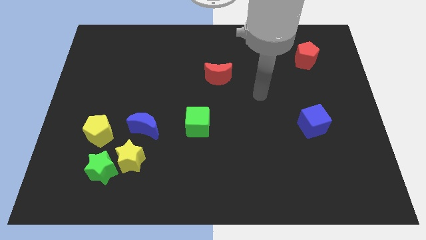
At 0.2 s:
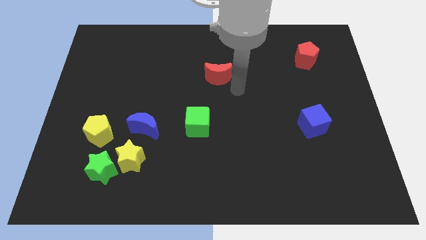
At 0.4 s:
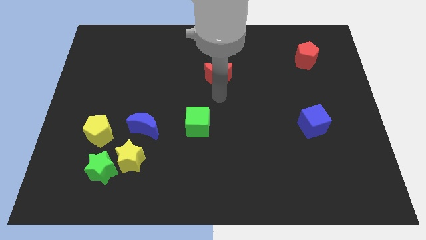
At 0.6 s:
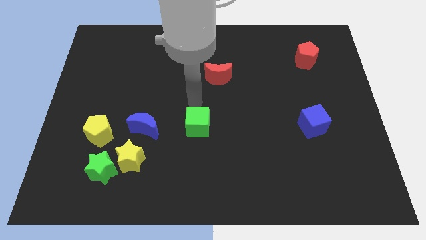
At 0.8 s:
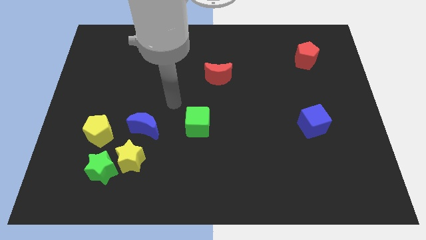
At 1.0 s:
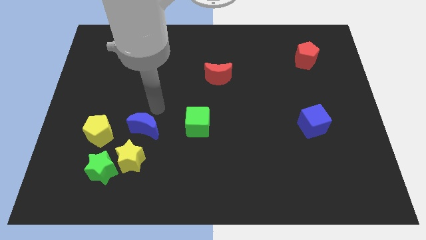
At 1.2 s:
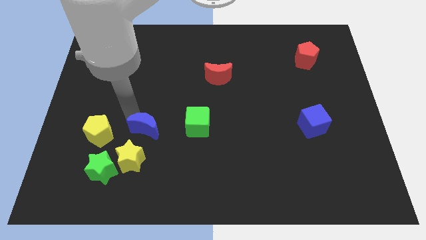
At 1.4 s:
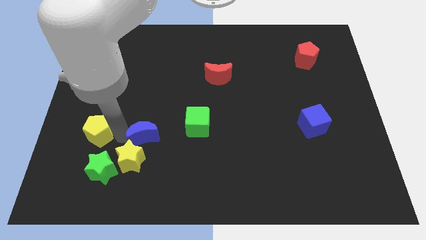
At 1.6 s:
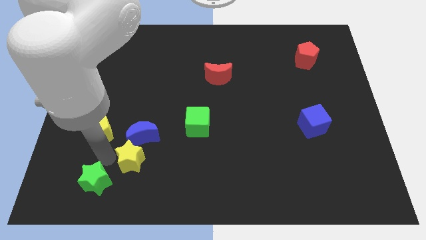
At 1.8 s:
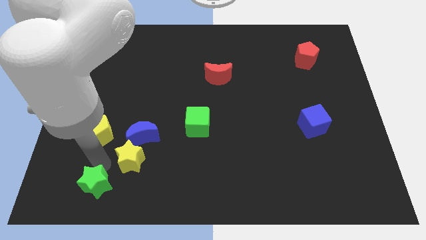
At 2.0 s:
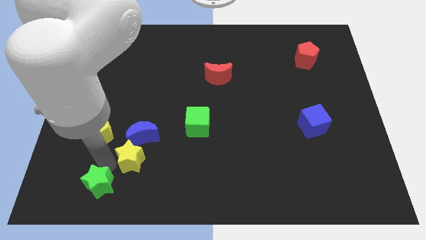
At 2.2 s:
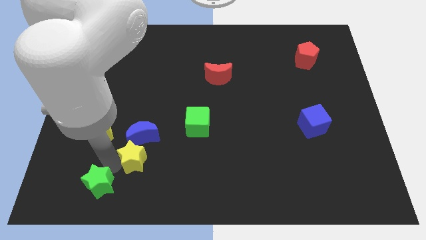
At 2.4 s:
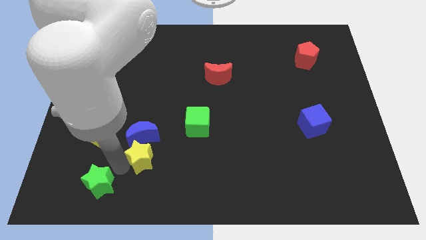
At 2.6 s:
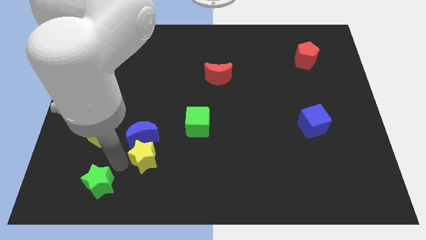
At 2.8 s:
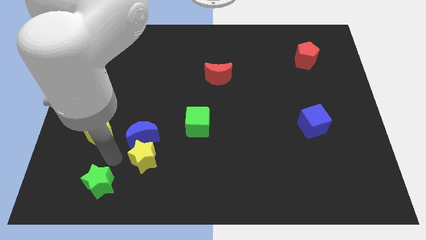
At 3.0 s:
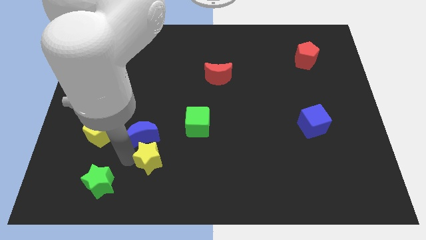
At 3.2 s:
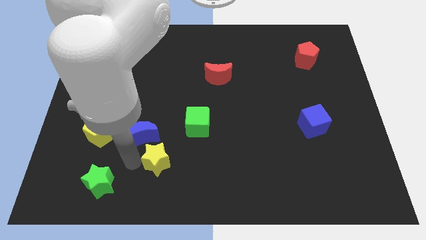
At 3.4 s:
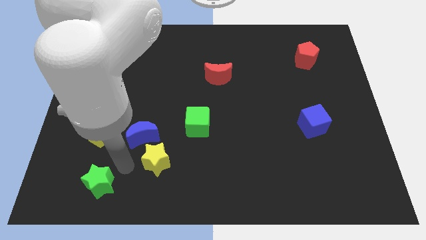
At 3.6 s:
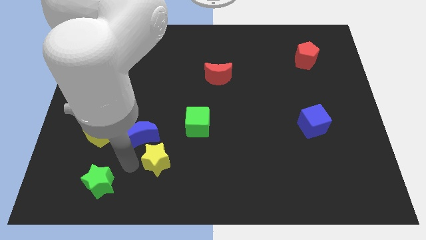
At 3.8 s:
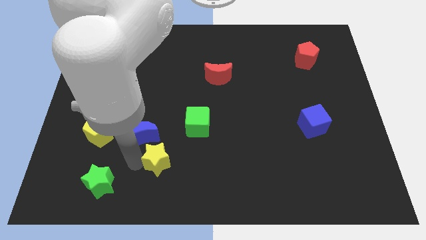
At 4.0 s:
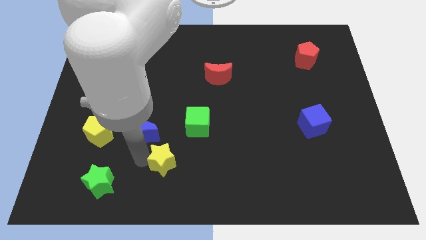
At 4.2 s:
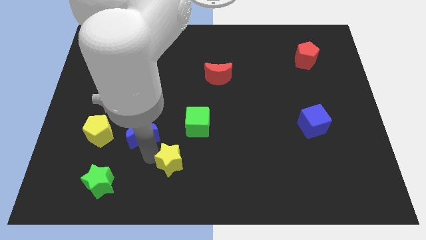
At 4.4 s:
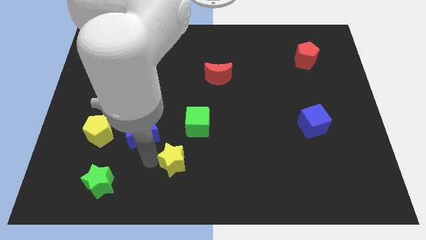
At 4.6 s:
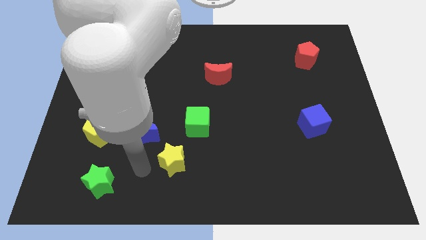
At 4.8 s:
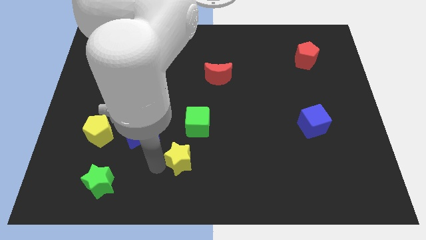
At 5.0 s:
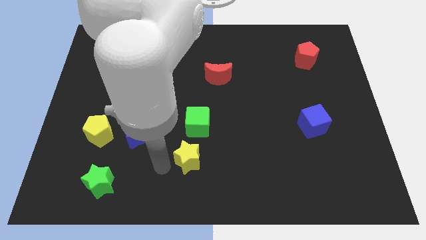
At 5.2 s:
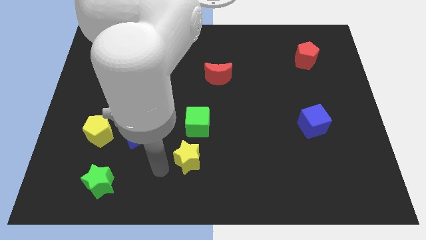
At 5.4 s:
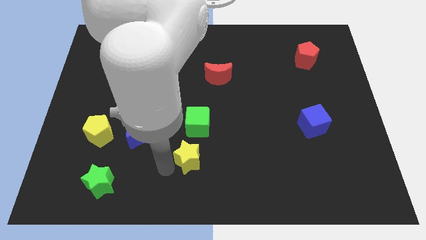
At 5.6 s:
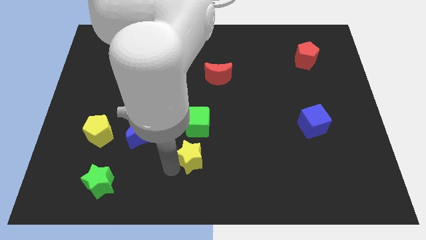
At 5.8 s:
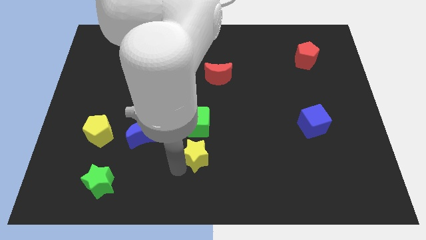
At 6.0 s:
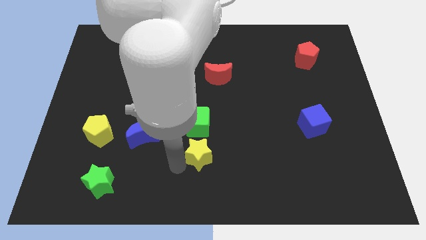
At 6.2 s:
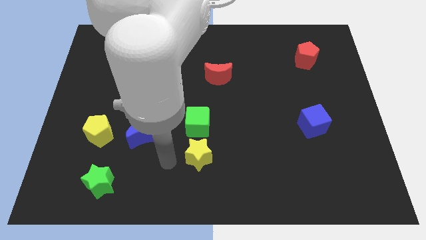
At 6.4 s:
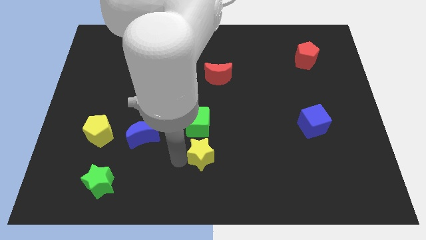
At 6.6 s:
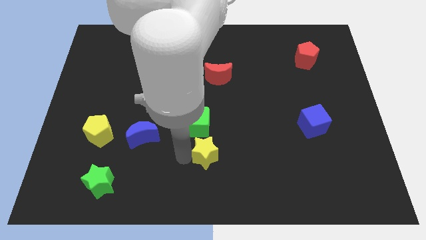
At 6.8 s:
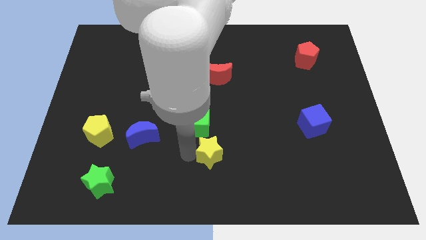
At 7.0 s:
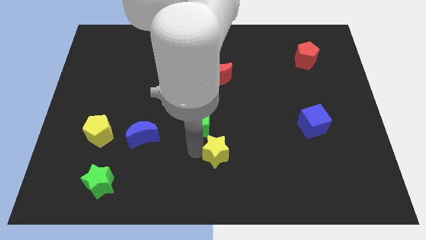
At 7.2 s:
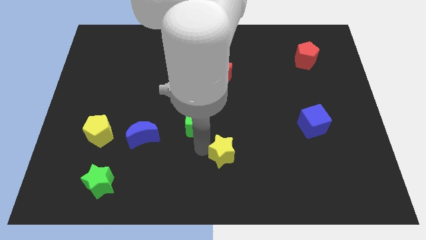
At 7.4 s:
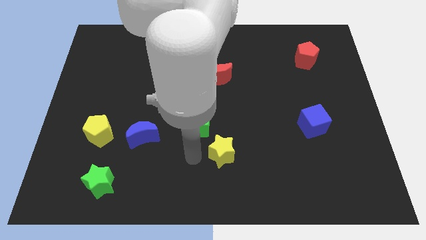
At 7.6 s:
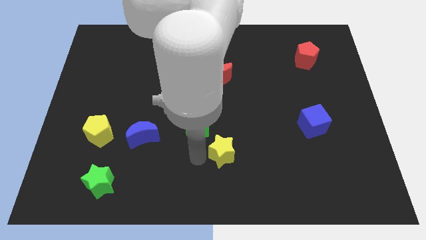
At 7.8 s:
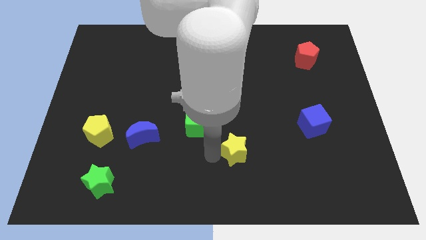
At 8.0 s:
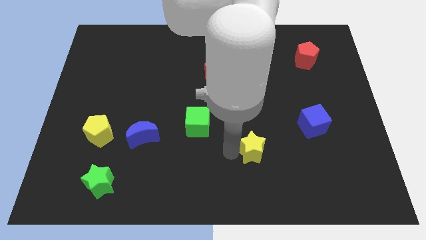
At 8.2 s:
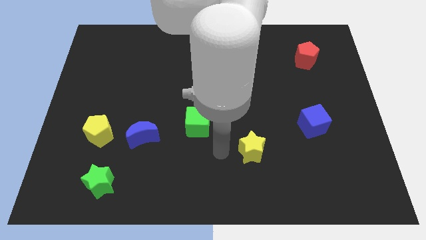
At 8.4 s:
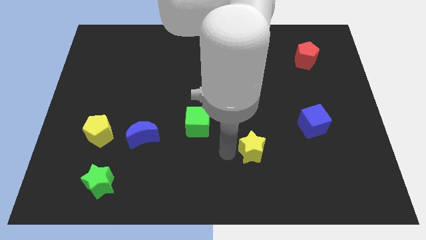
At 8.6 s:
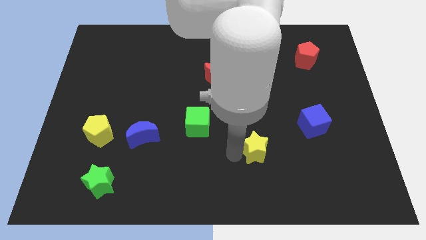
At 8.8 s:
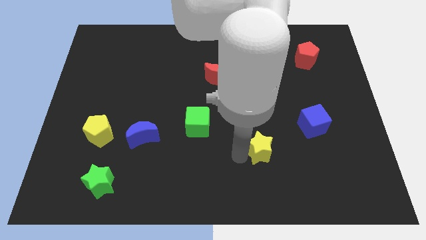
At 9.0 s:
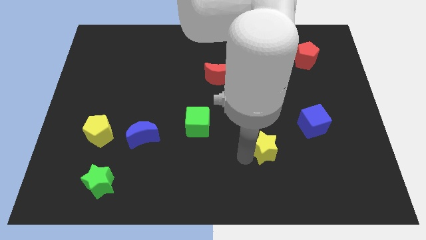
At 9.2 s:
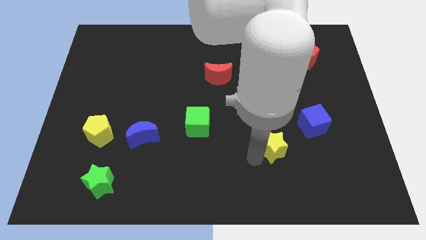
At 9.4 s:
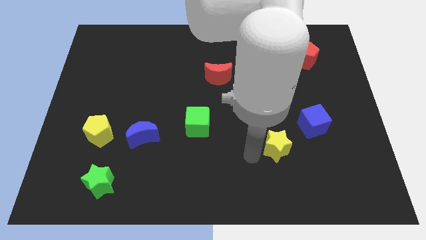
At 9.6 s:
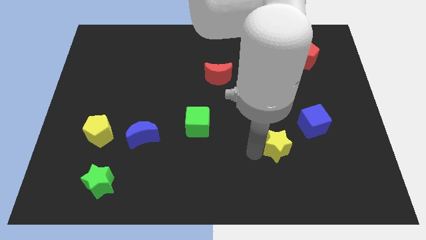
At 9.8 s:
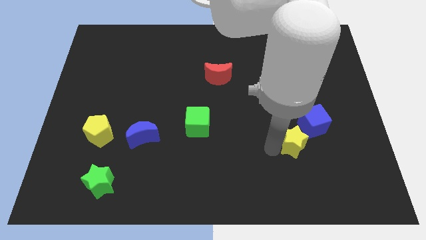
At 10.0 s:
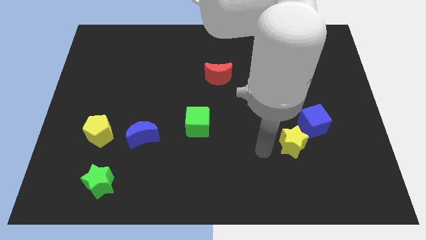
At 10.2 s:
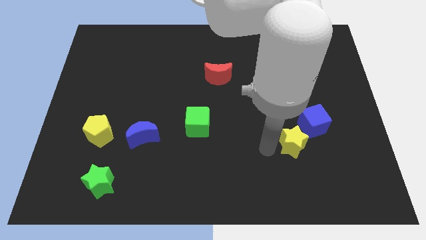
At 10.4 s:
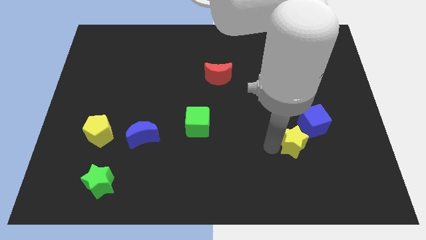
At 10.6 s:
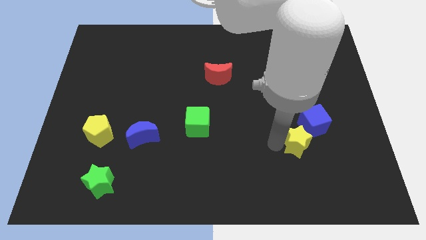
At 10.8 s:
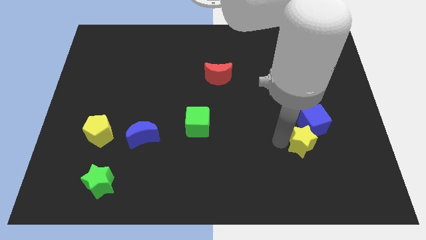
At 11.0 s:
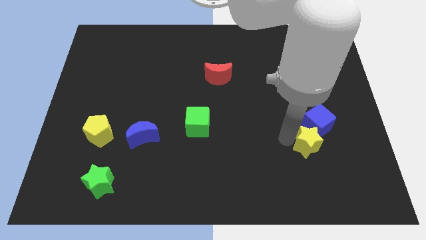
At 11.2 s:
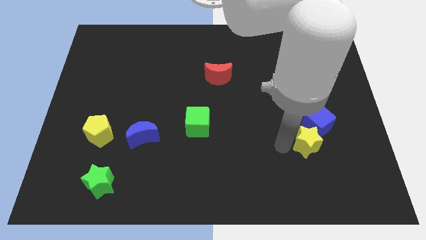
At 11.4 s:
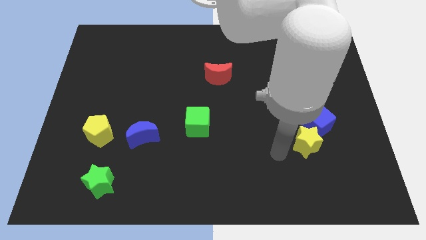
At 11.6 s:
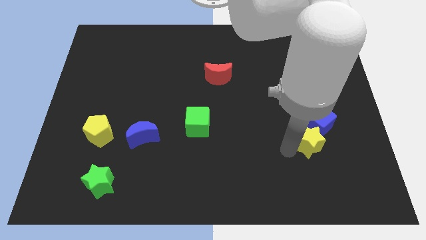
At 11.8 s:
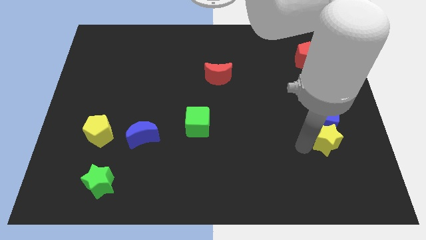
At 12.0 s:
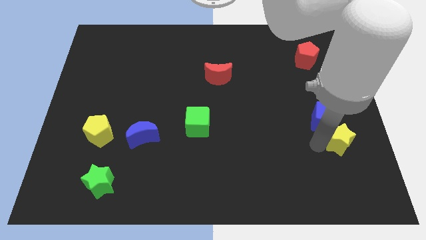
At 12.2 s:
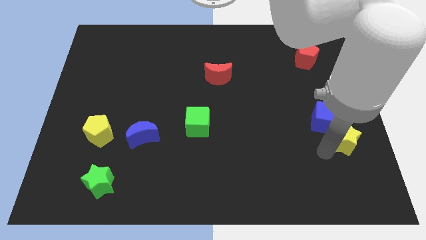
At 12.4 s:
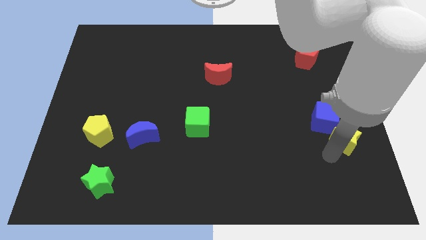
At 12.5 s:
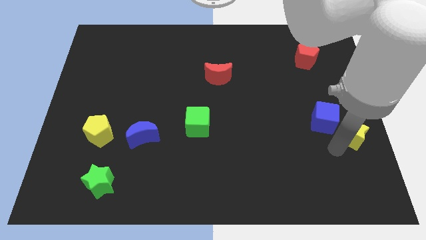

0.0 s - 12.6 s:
slide the yellow star to the right side

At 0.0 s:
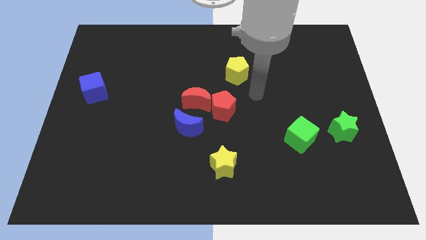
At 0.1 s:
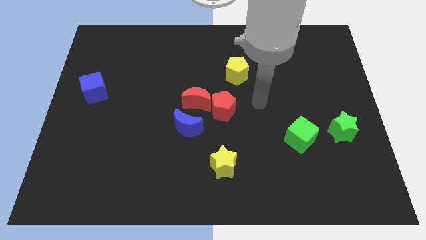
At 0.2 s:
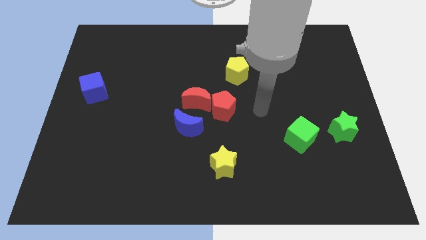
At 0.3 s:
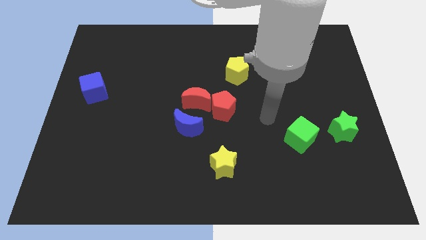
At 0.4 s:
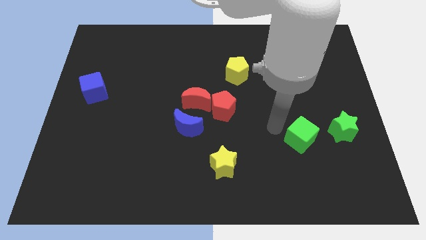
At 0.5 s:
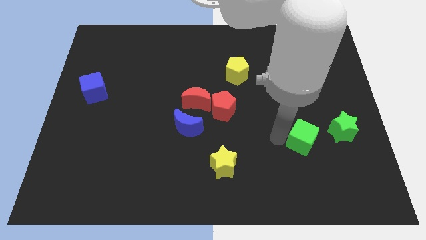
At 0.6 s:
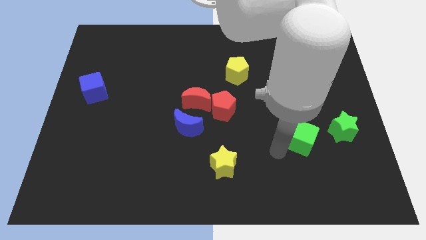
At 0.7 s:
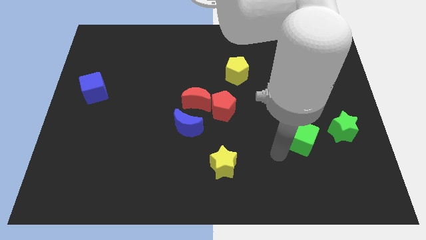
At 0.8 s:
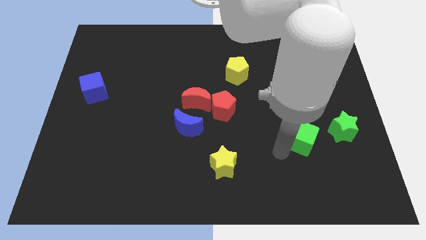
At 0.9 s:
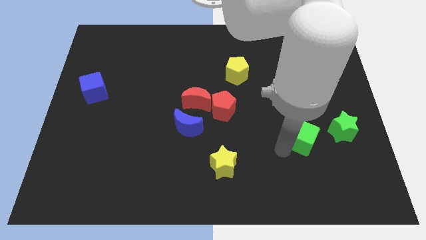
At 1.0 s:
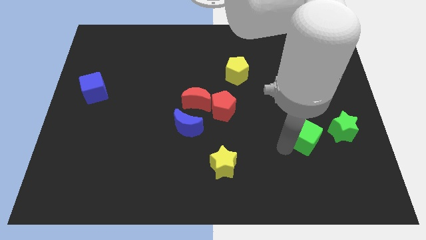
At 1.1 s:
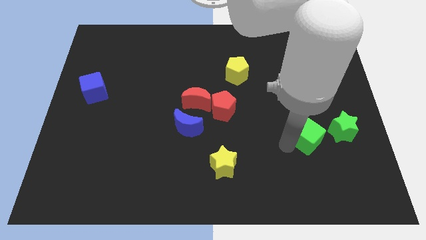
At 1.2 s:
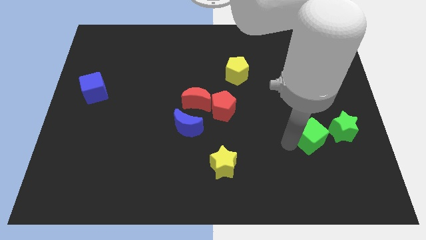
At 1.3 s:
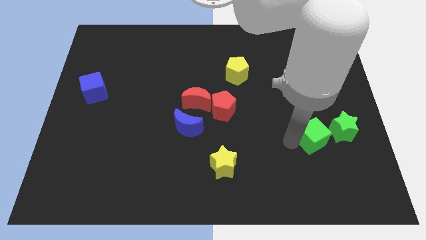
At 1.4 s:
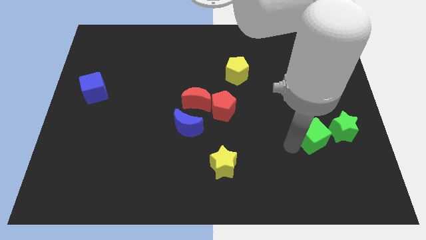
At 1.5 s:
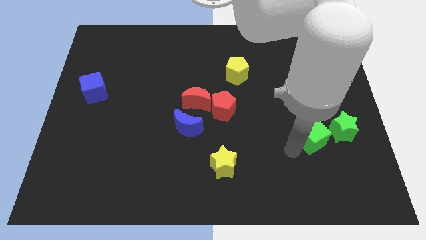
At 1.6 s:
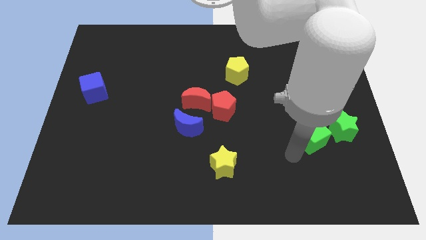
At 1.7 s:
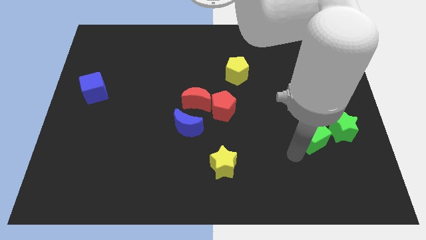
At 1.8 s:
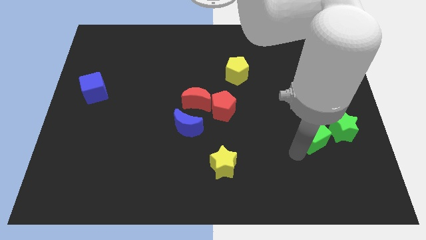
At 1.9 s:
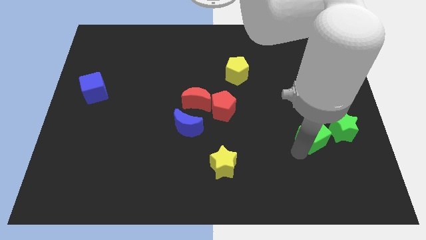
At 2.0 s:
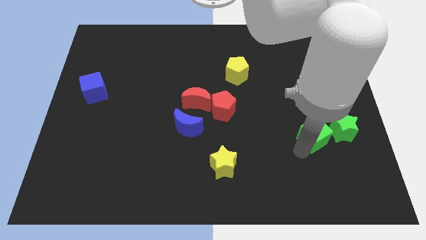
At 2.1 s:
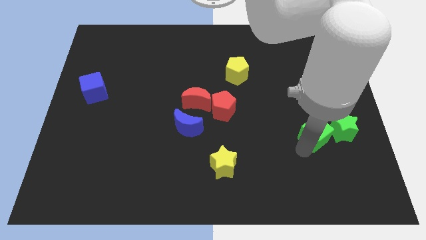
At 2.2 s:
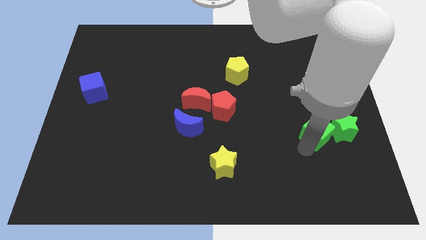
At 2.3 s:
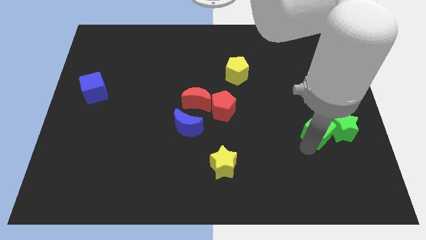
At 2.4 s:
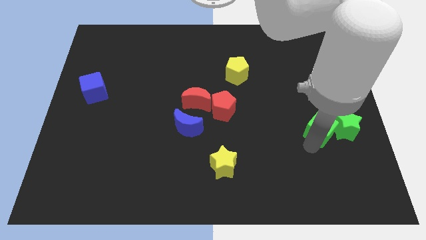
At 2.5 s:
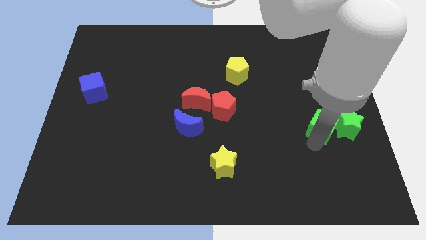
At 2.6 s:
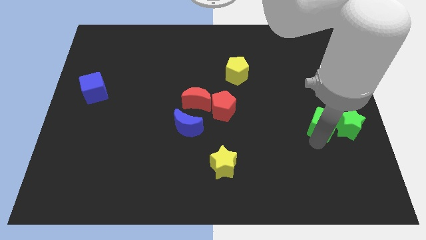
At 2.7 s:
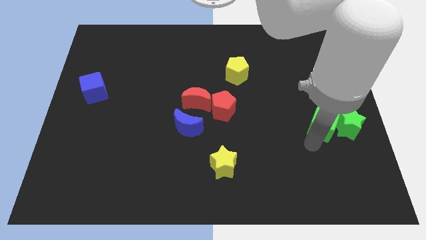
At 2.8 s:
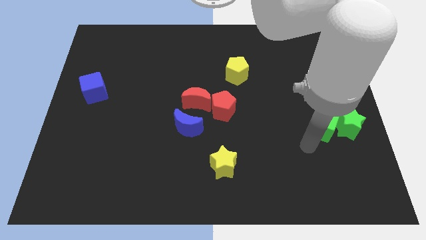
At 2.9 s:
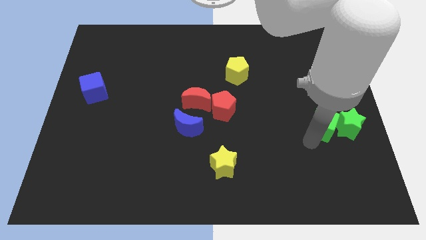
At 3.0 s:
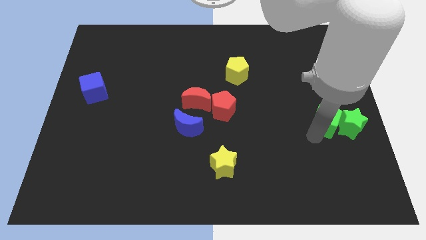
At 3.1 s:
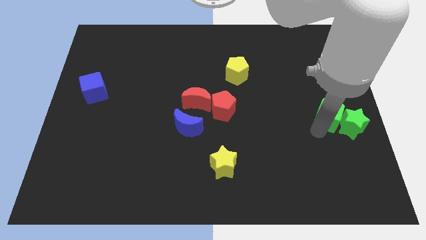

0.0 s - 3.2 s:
put the green cube to the center right
